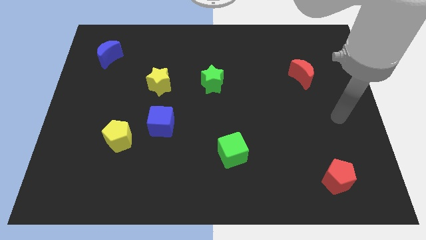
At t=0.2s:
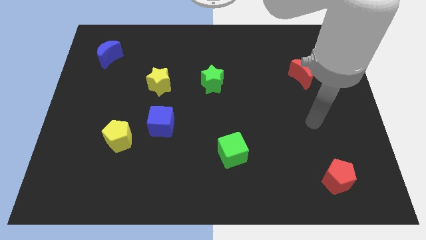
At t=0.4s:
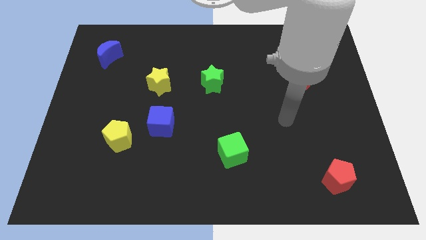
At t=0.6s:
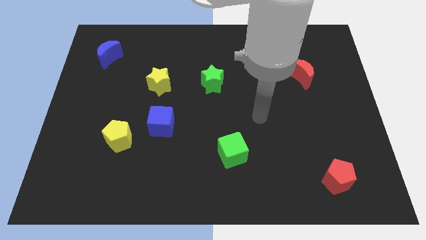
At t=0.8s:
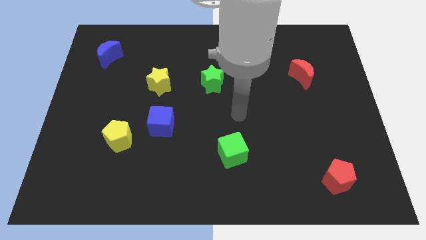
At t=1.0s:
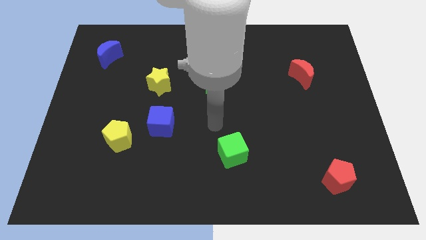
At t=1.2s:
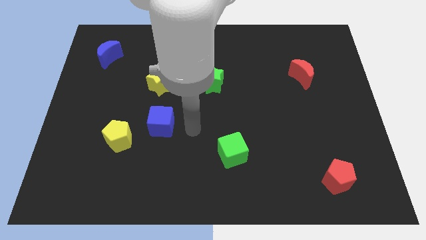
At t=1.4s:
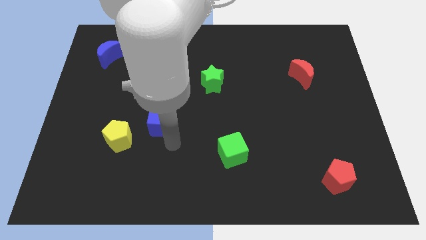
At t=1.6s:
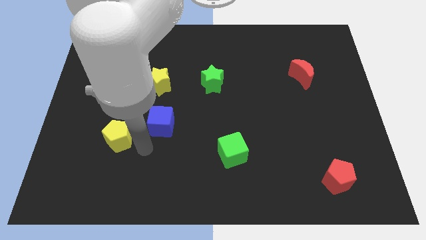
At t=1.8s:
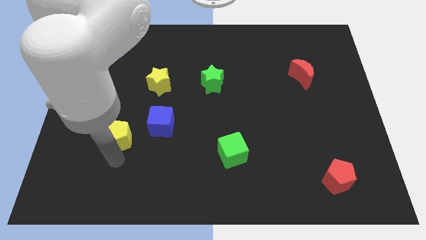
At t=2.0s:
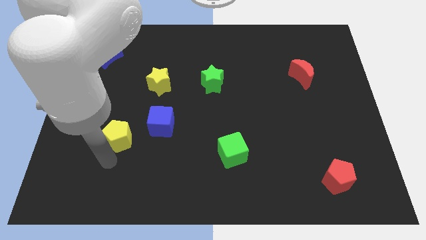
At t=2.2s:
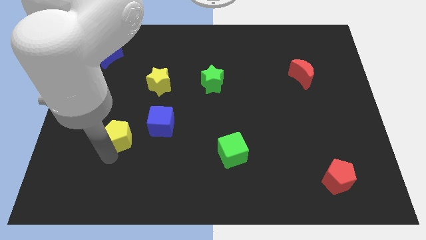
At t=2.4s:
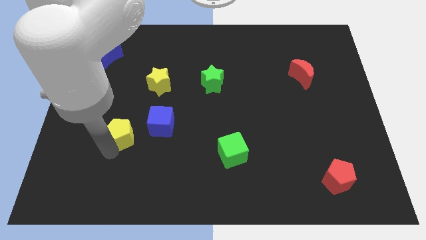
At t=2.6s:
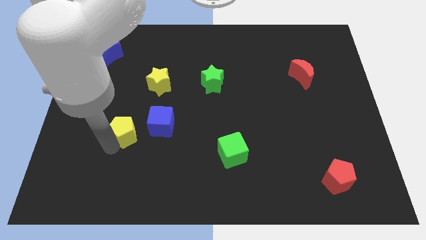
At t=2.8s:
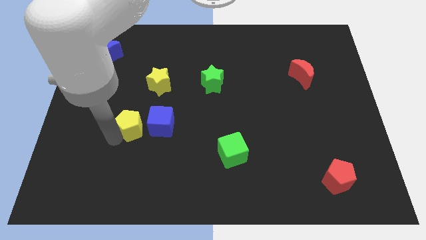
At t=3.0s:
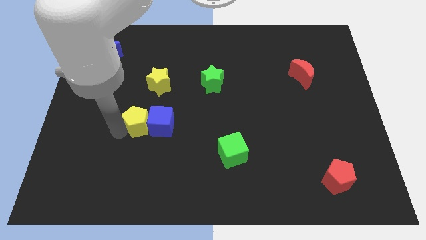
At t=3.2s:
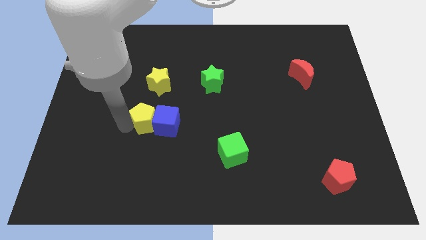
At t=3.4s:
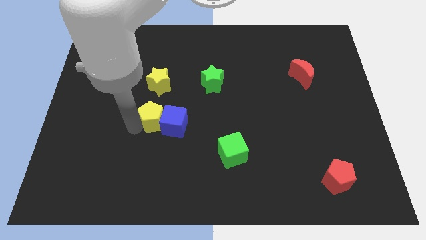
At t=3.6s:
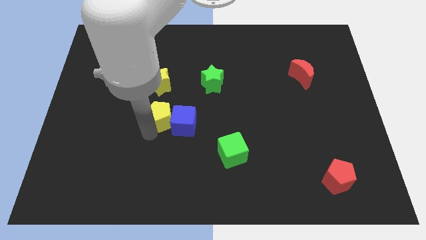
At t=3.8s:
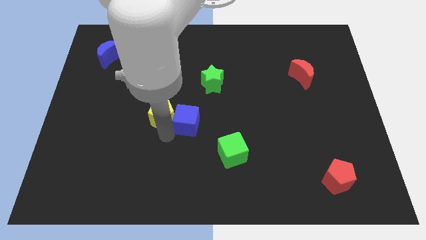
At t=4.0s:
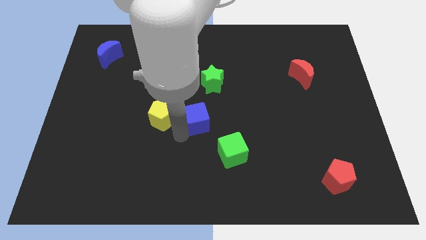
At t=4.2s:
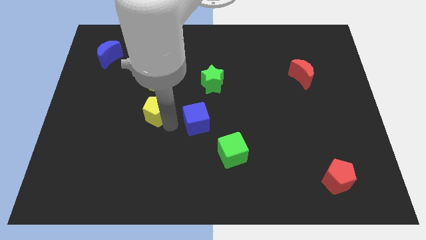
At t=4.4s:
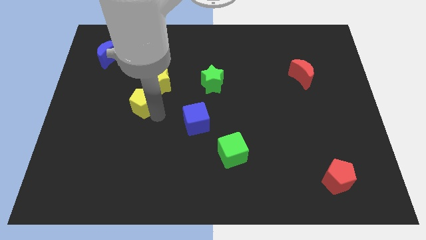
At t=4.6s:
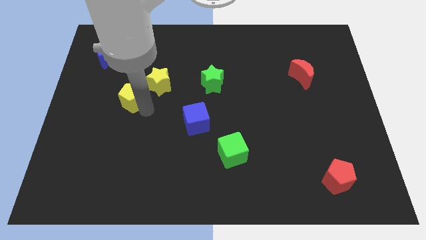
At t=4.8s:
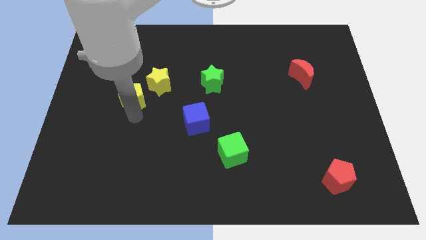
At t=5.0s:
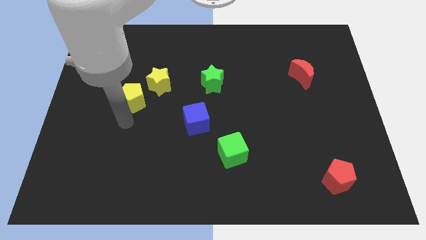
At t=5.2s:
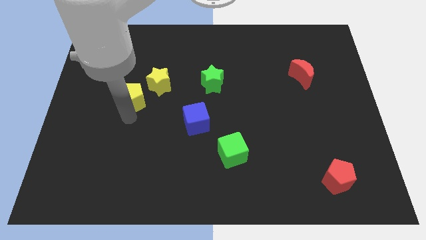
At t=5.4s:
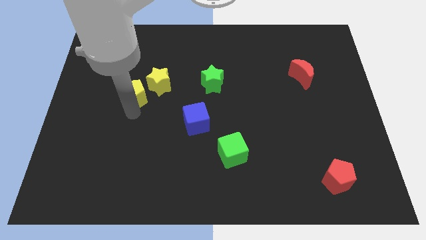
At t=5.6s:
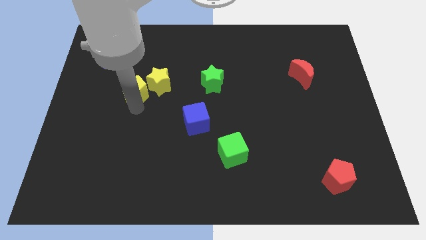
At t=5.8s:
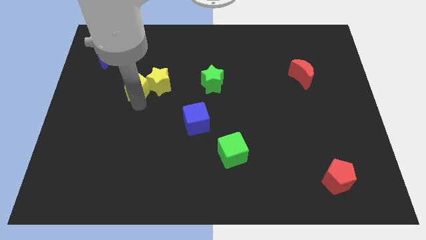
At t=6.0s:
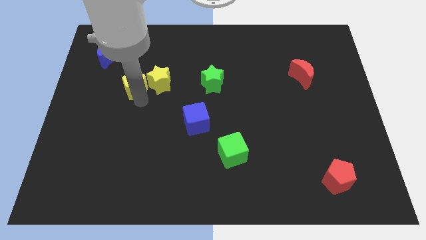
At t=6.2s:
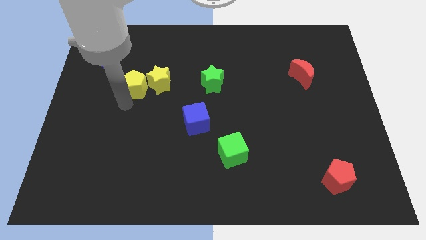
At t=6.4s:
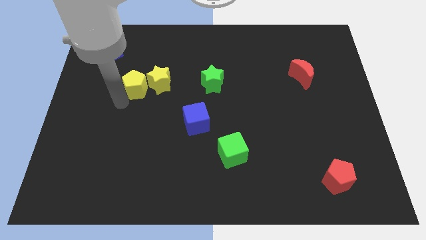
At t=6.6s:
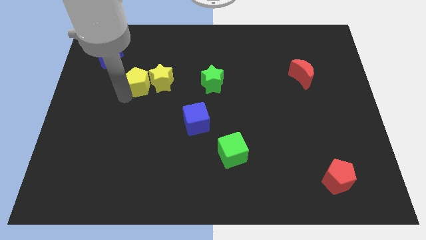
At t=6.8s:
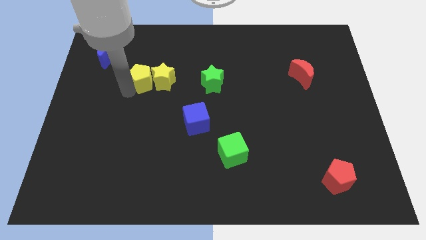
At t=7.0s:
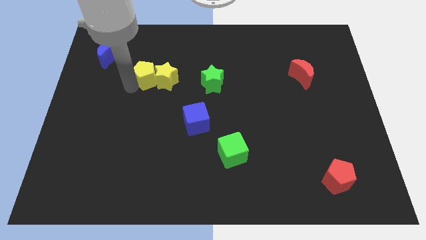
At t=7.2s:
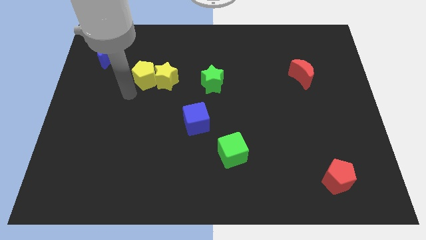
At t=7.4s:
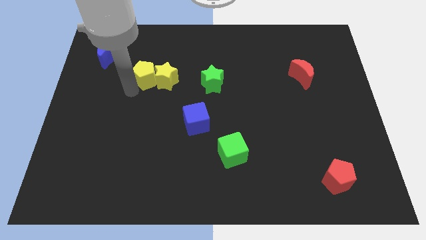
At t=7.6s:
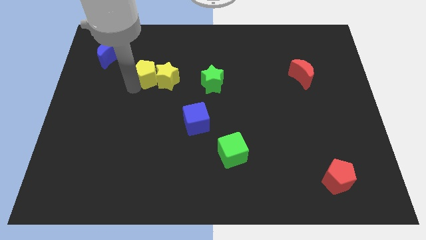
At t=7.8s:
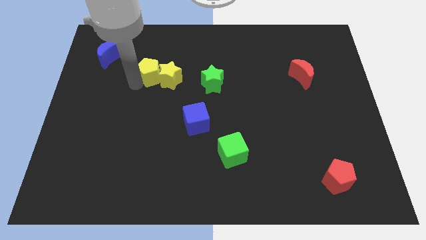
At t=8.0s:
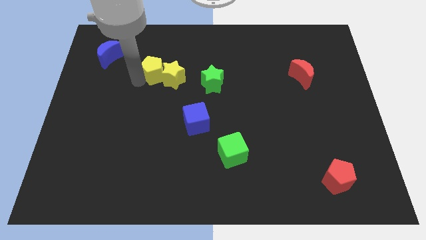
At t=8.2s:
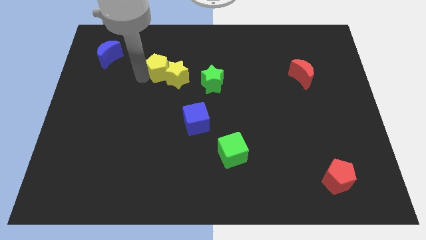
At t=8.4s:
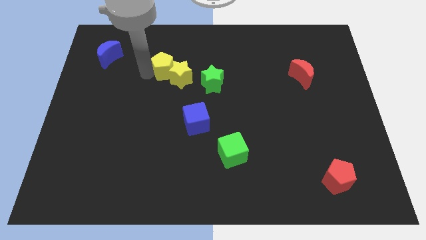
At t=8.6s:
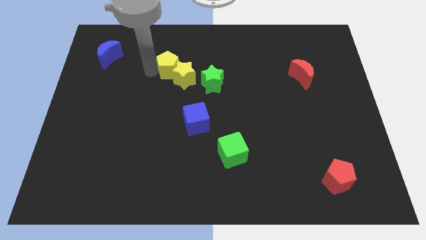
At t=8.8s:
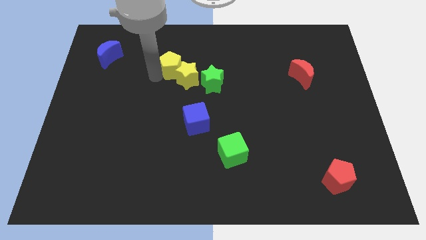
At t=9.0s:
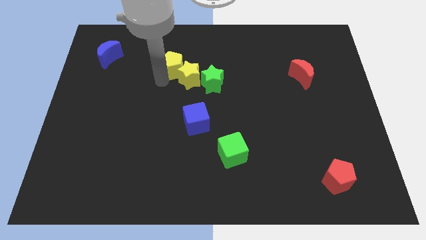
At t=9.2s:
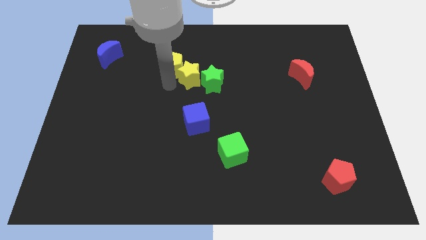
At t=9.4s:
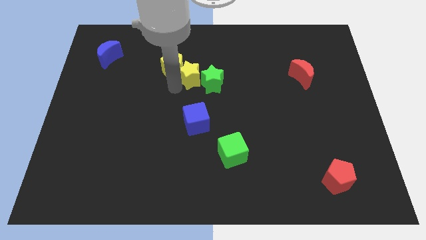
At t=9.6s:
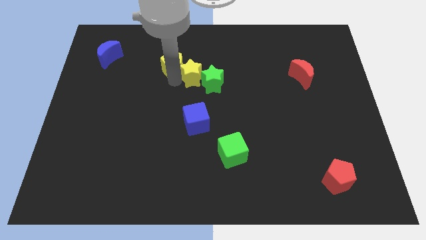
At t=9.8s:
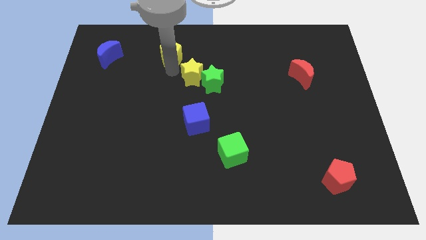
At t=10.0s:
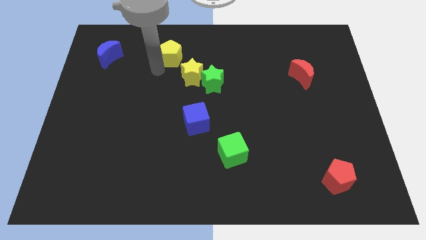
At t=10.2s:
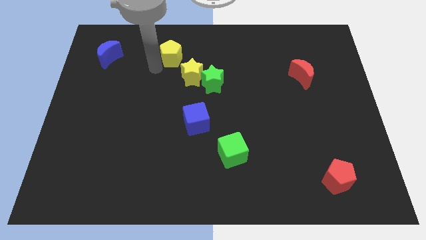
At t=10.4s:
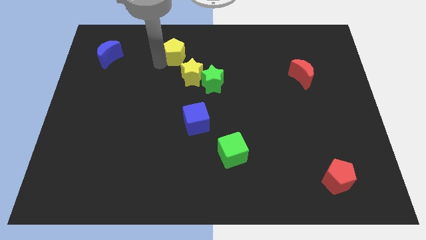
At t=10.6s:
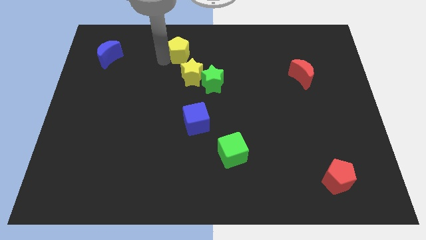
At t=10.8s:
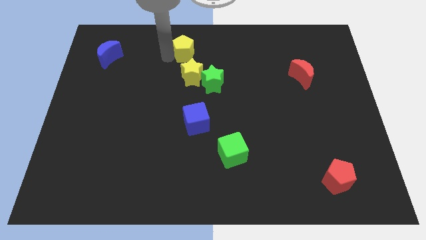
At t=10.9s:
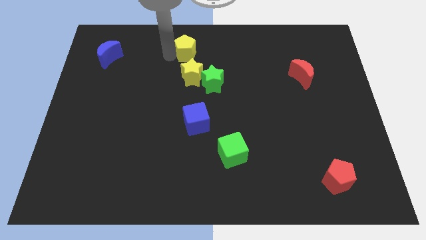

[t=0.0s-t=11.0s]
push the yellow pentagon to the top side

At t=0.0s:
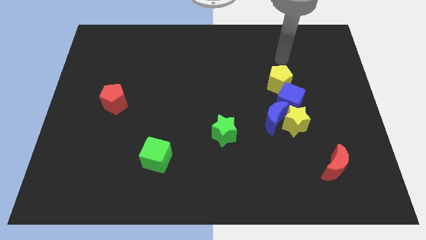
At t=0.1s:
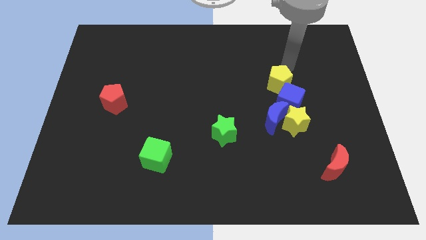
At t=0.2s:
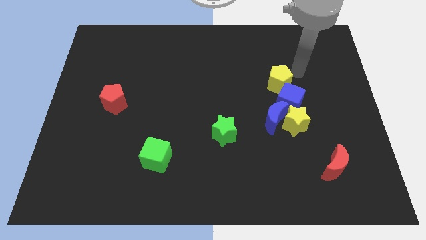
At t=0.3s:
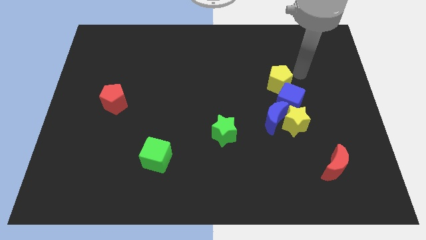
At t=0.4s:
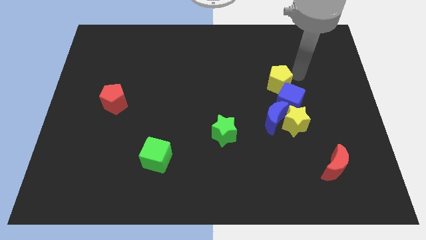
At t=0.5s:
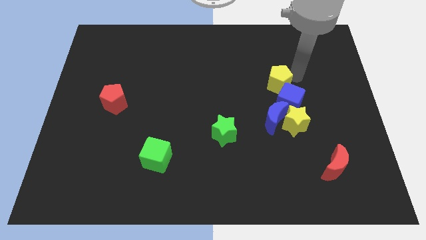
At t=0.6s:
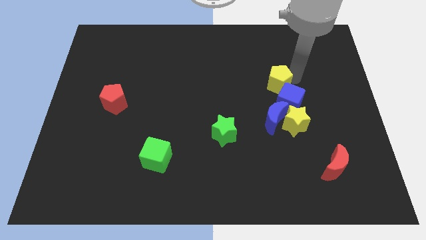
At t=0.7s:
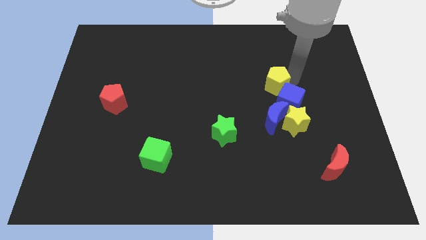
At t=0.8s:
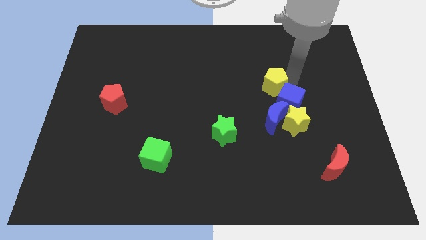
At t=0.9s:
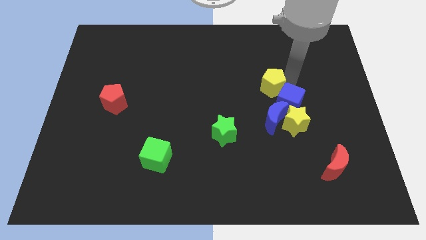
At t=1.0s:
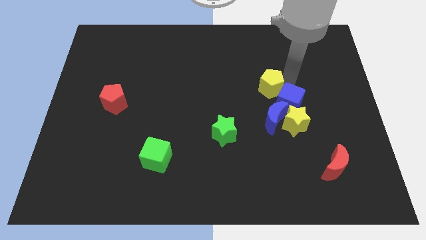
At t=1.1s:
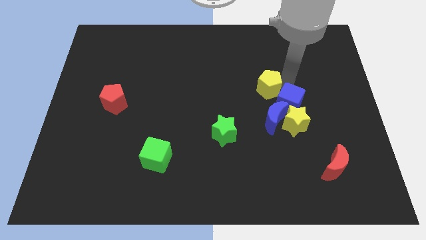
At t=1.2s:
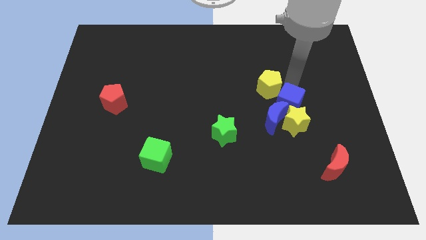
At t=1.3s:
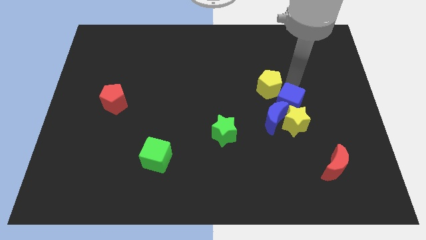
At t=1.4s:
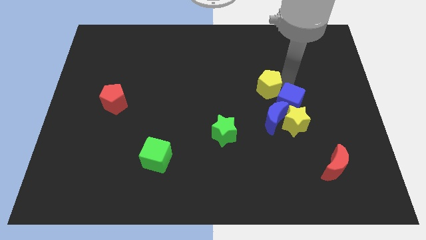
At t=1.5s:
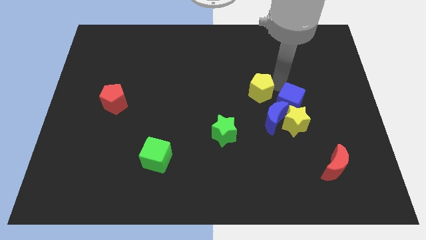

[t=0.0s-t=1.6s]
move the yellow pentagon to the middle of the board
